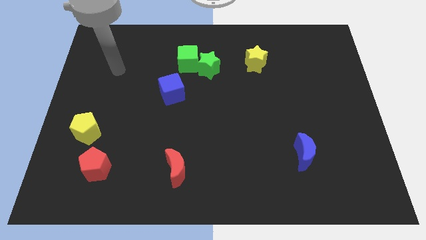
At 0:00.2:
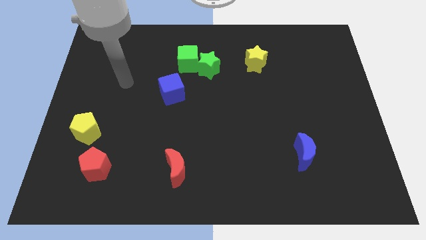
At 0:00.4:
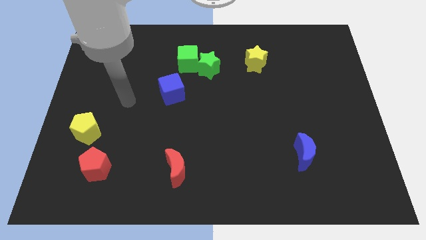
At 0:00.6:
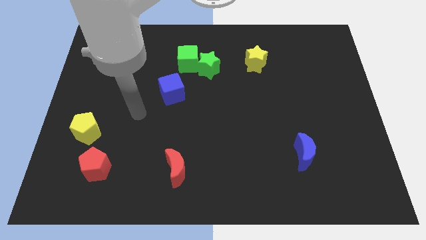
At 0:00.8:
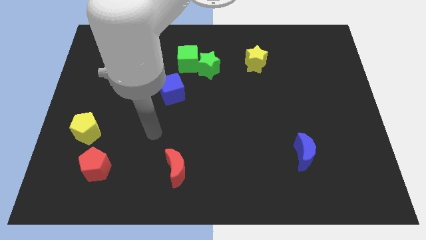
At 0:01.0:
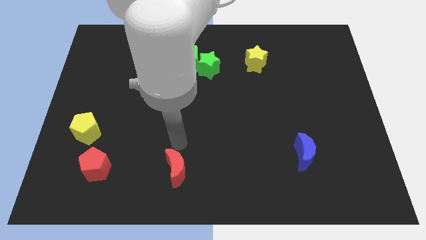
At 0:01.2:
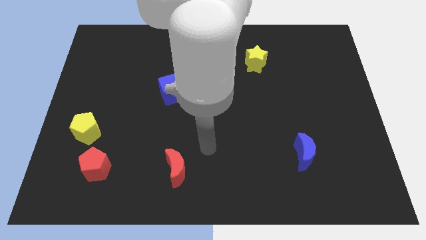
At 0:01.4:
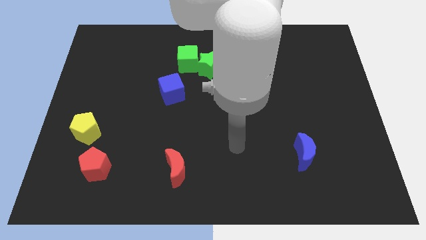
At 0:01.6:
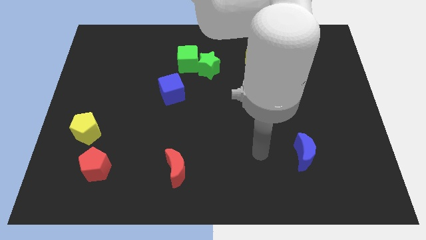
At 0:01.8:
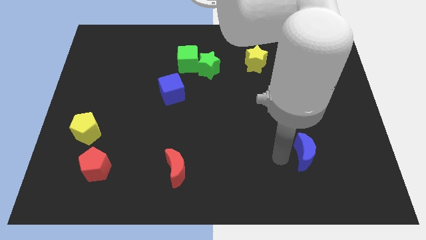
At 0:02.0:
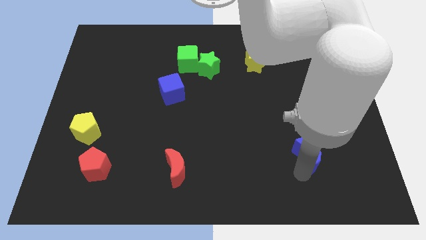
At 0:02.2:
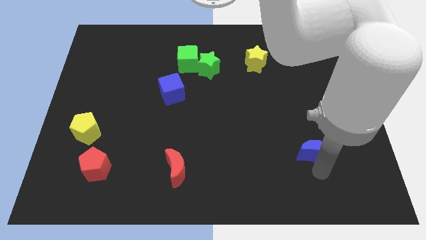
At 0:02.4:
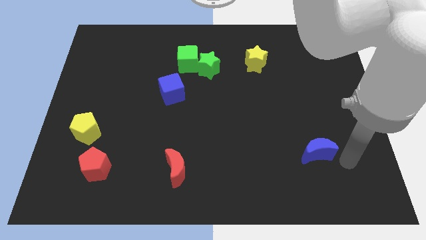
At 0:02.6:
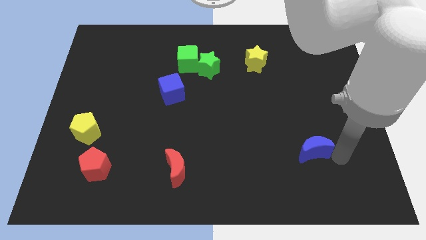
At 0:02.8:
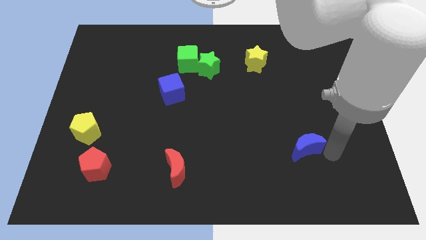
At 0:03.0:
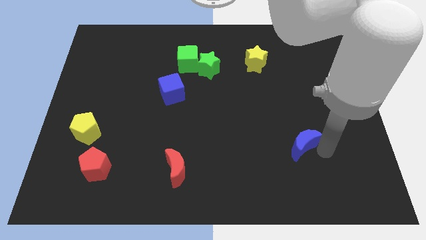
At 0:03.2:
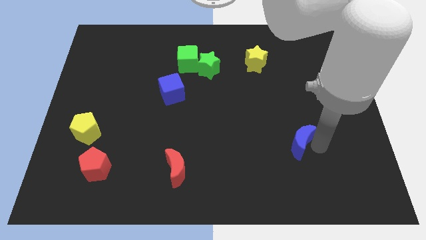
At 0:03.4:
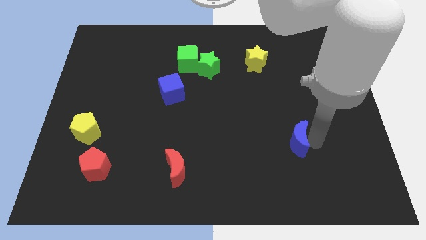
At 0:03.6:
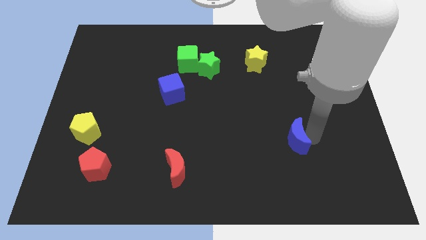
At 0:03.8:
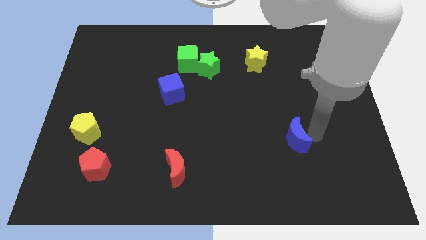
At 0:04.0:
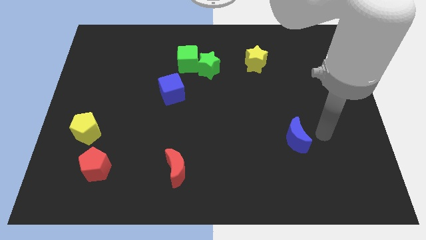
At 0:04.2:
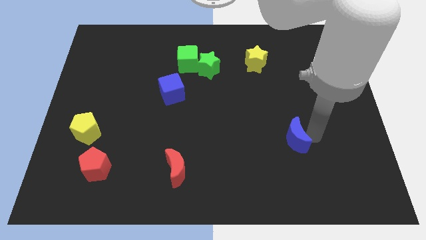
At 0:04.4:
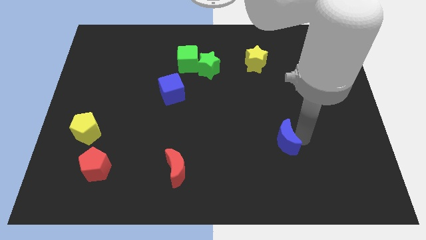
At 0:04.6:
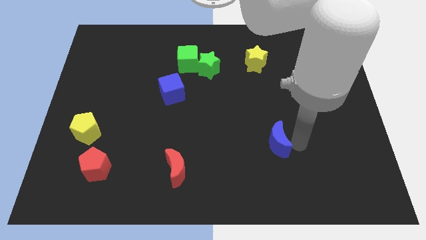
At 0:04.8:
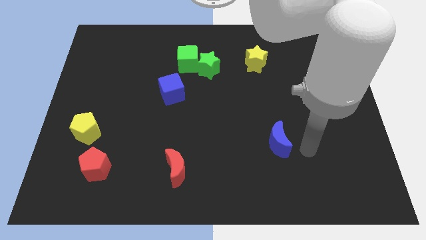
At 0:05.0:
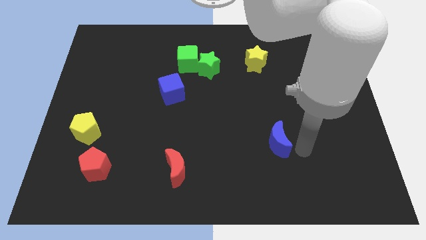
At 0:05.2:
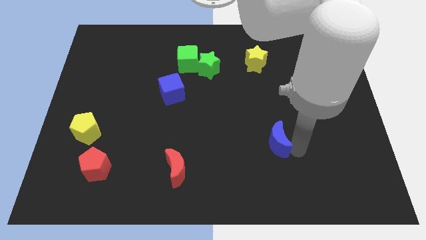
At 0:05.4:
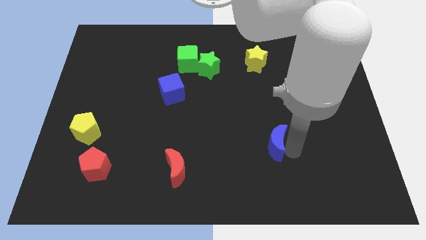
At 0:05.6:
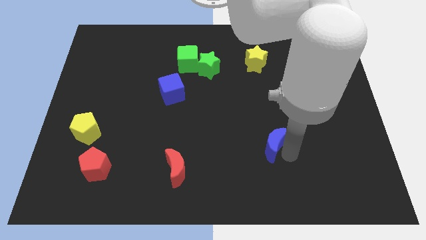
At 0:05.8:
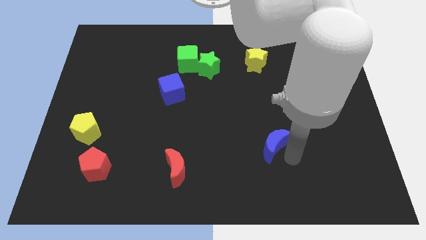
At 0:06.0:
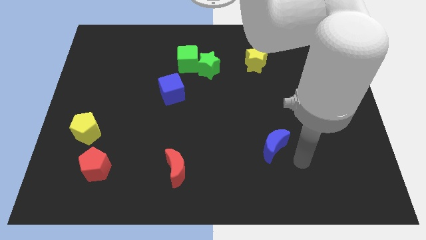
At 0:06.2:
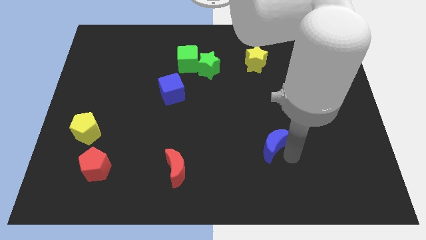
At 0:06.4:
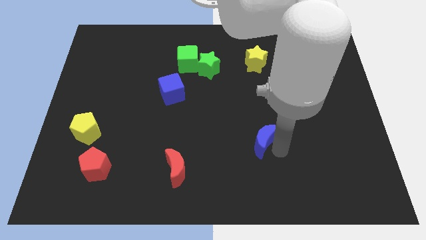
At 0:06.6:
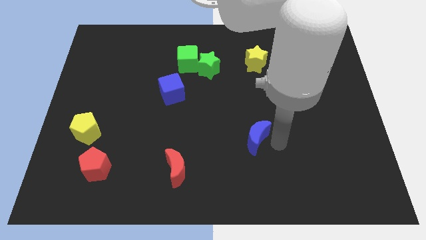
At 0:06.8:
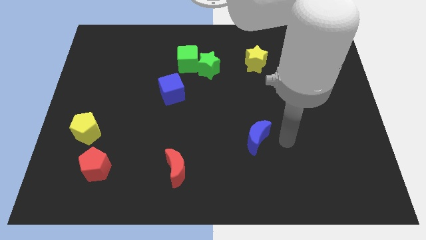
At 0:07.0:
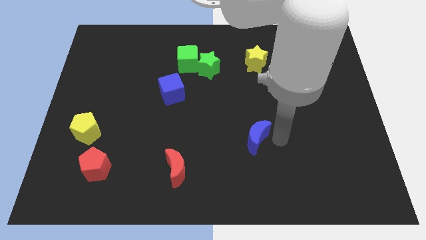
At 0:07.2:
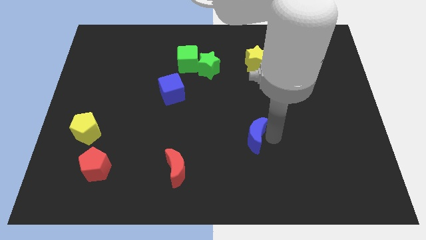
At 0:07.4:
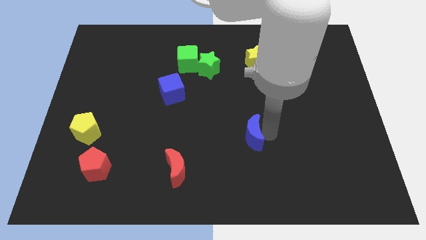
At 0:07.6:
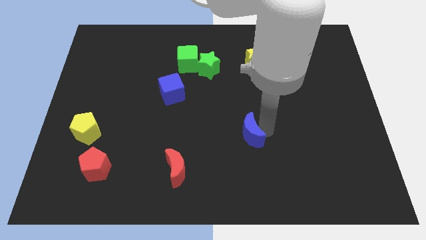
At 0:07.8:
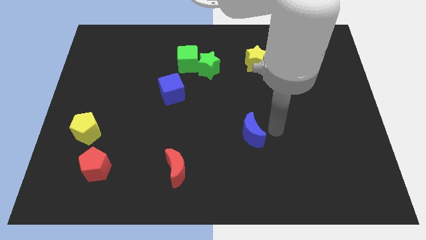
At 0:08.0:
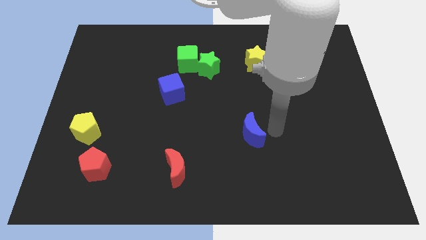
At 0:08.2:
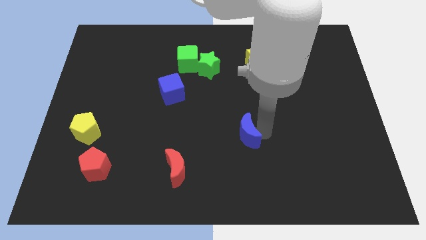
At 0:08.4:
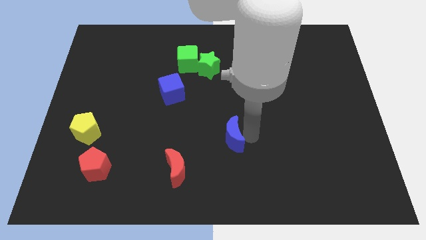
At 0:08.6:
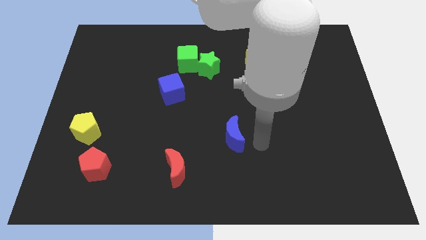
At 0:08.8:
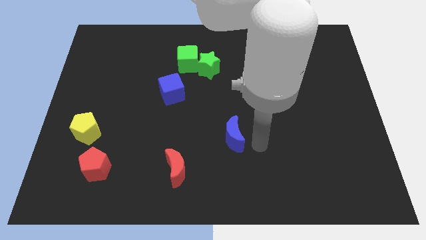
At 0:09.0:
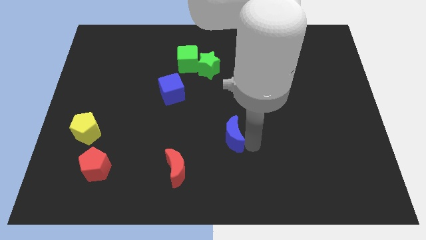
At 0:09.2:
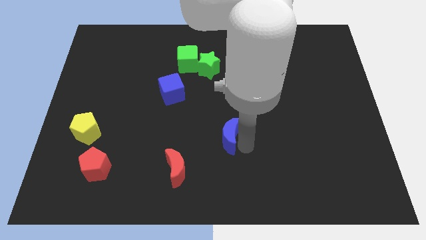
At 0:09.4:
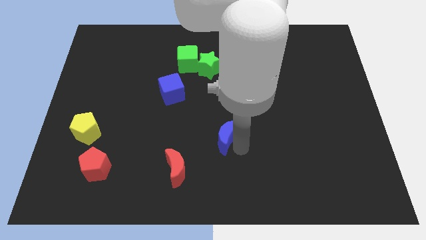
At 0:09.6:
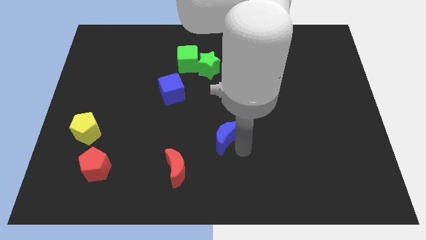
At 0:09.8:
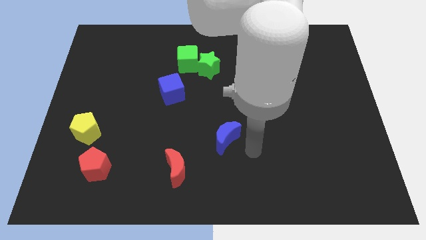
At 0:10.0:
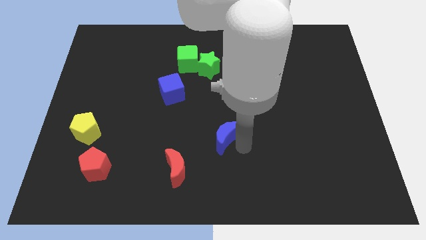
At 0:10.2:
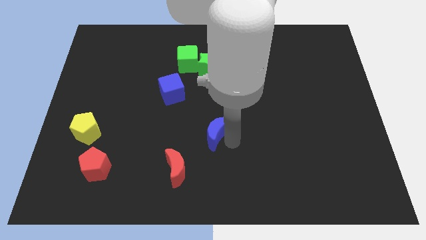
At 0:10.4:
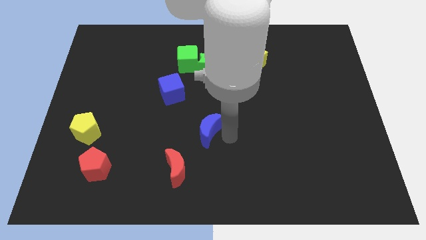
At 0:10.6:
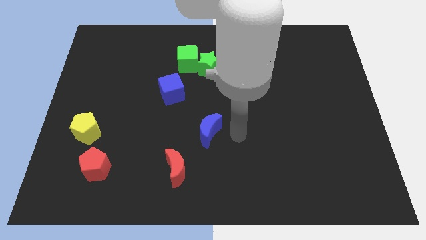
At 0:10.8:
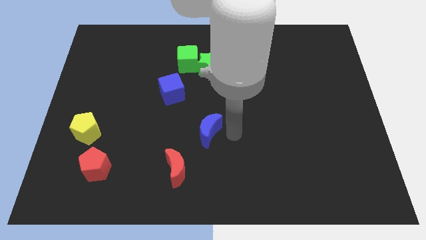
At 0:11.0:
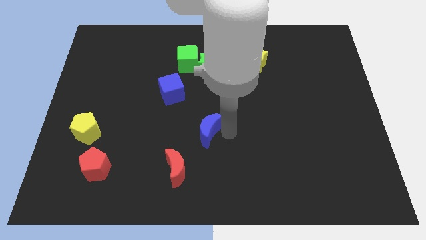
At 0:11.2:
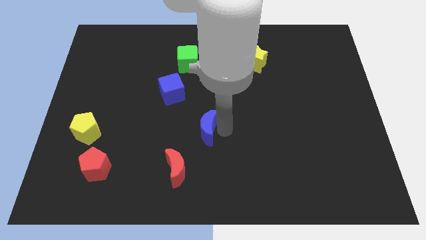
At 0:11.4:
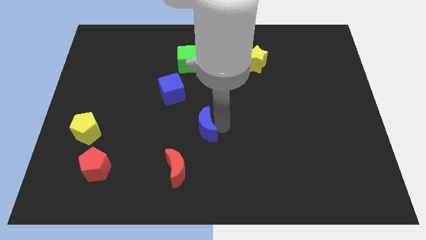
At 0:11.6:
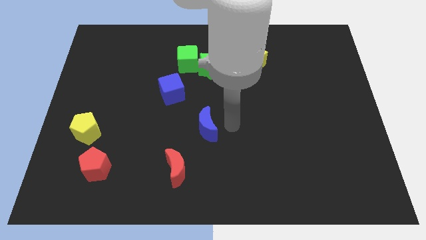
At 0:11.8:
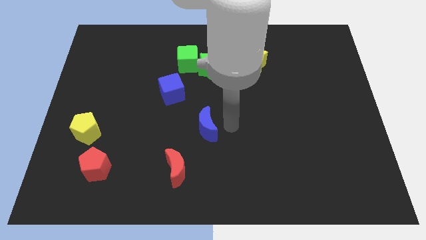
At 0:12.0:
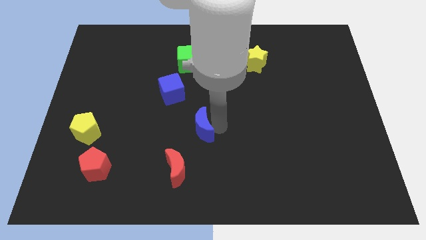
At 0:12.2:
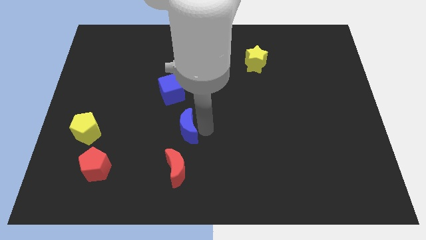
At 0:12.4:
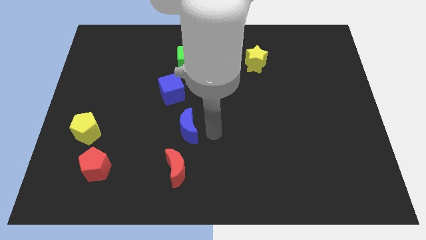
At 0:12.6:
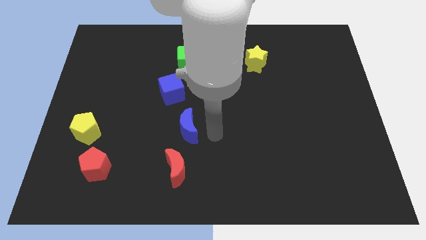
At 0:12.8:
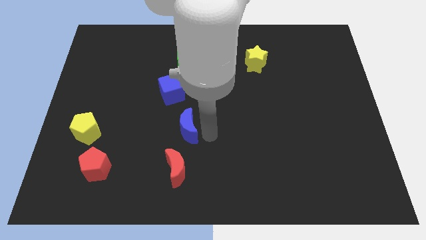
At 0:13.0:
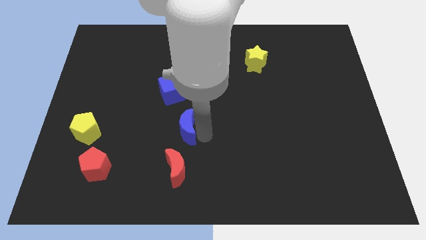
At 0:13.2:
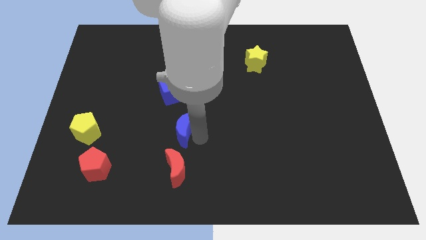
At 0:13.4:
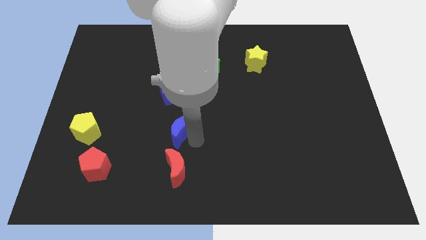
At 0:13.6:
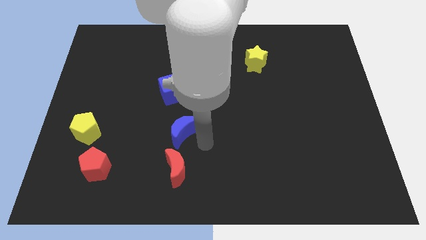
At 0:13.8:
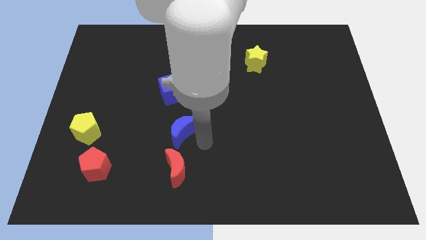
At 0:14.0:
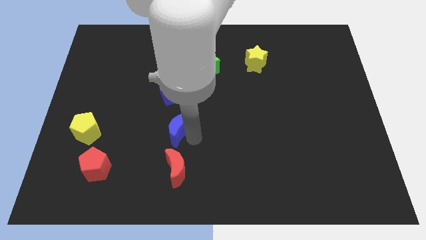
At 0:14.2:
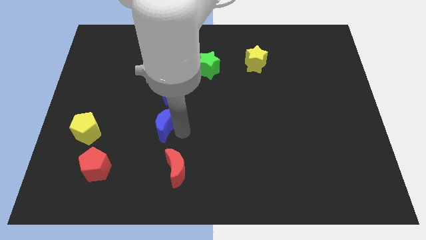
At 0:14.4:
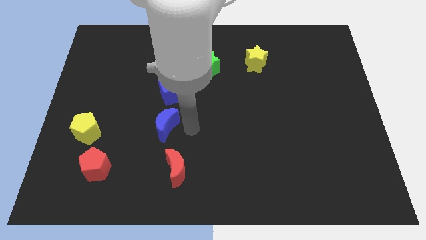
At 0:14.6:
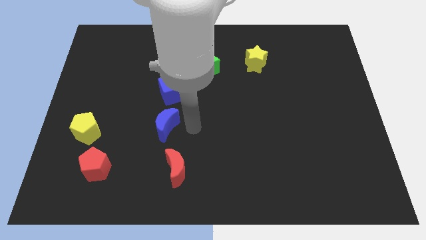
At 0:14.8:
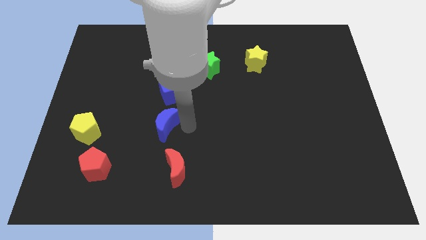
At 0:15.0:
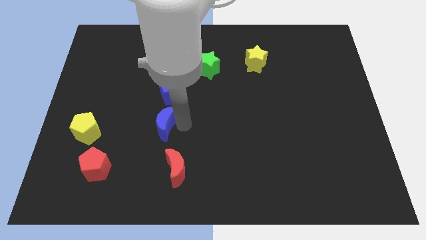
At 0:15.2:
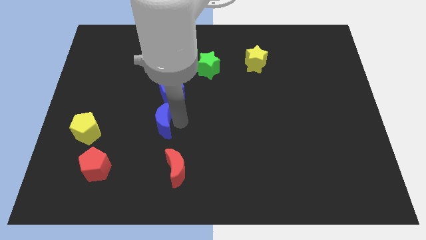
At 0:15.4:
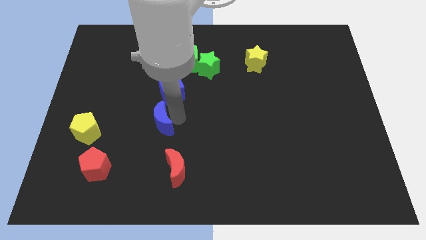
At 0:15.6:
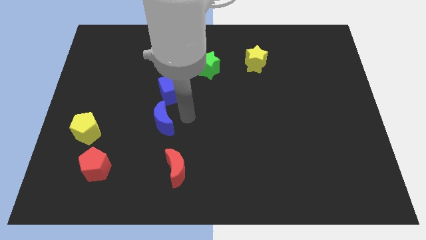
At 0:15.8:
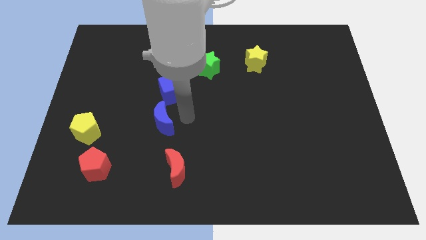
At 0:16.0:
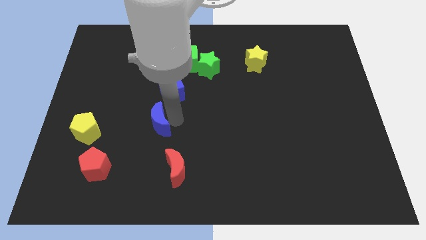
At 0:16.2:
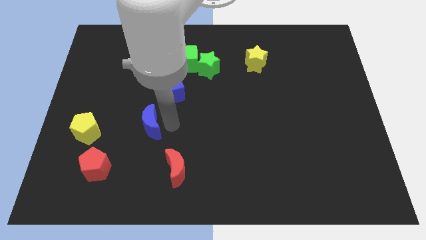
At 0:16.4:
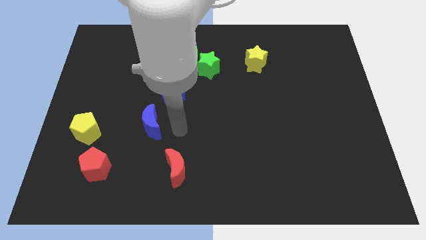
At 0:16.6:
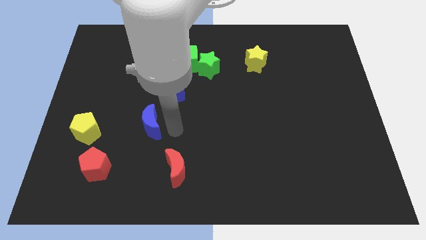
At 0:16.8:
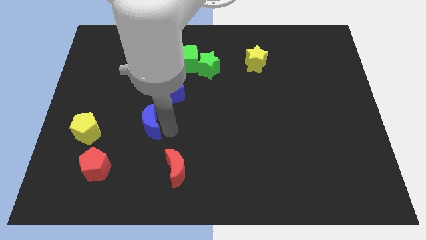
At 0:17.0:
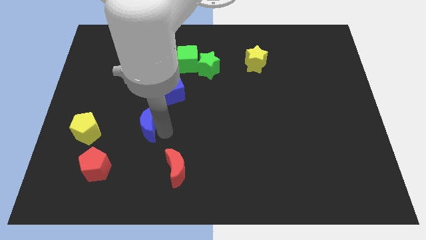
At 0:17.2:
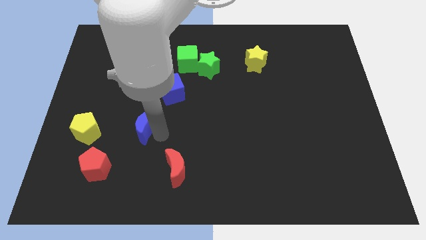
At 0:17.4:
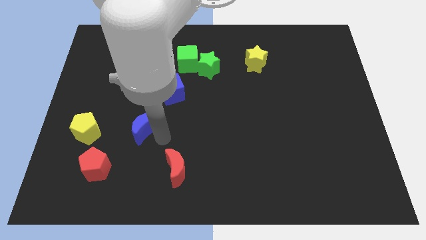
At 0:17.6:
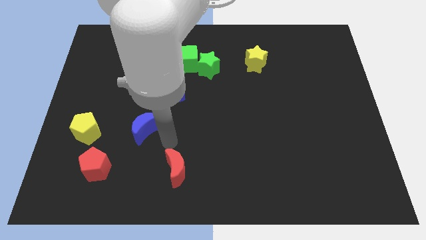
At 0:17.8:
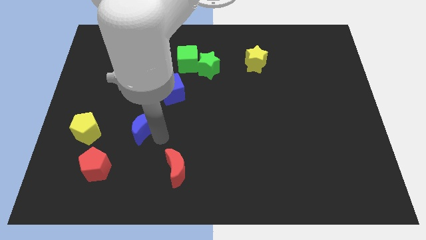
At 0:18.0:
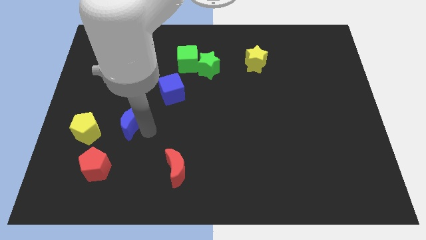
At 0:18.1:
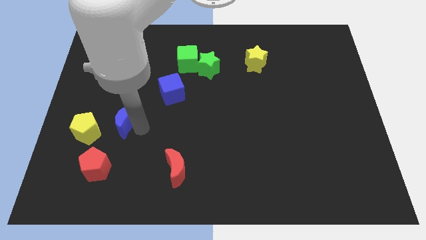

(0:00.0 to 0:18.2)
push the blue moon to the top right side of the yellow pentagon
